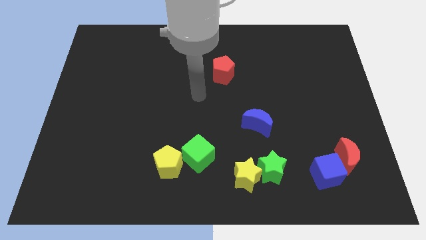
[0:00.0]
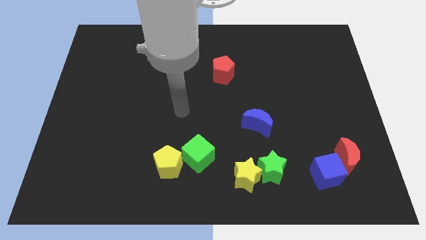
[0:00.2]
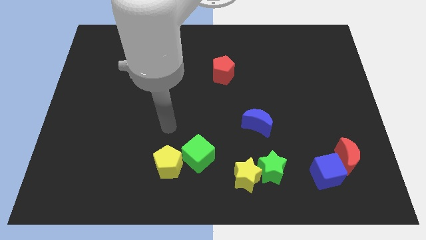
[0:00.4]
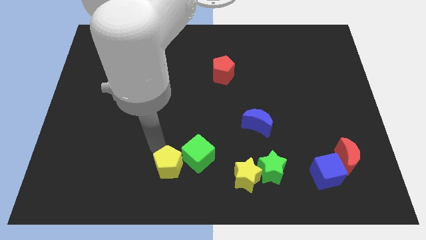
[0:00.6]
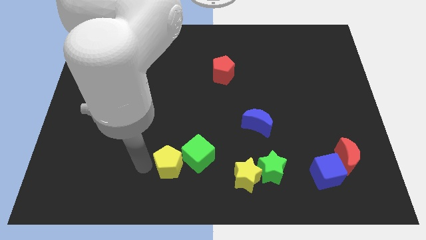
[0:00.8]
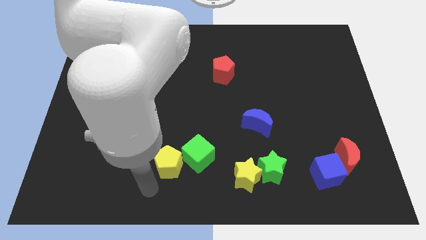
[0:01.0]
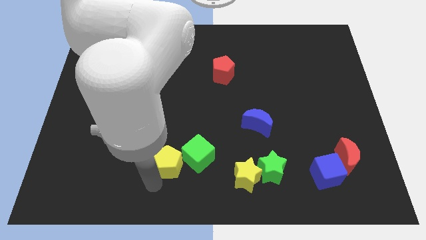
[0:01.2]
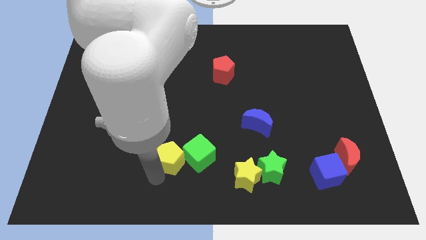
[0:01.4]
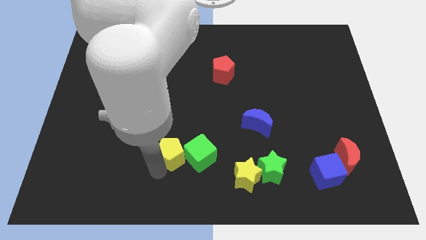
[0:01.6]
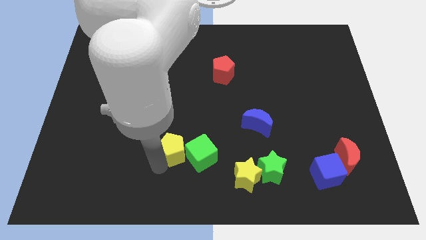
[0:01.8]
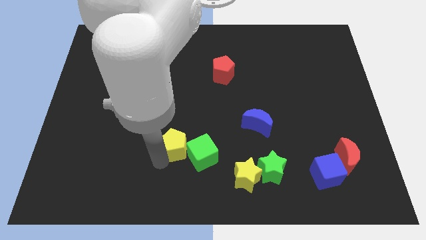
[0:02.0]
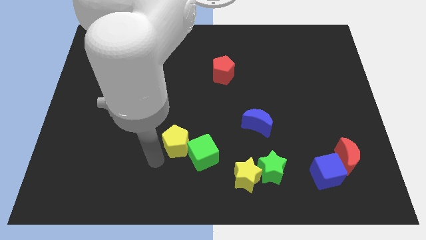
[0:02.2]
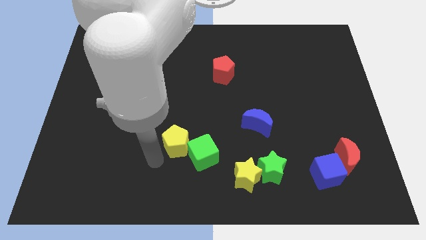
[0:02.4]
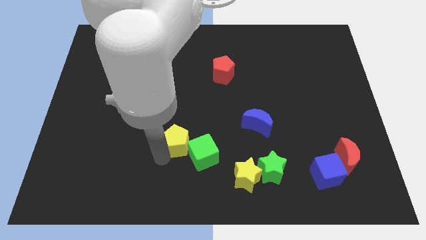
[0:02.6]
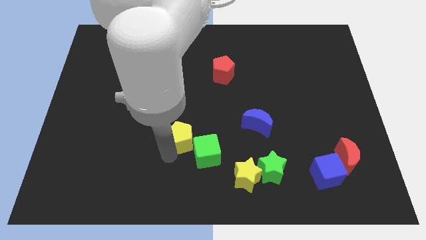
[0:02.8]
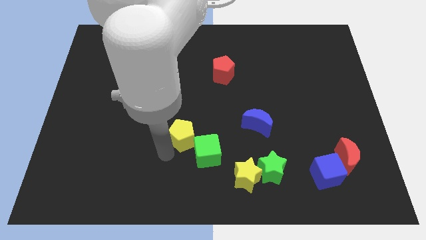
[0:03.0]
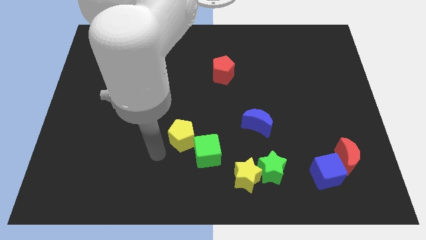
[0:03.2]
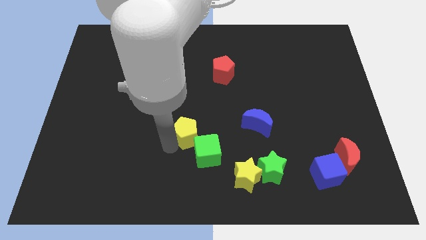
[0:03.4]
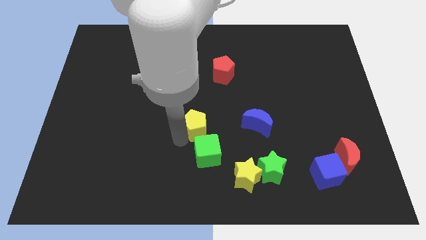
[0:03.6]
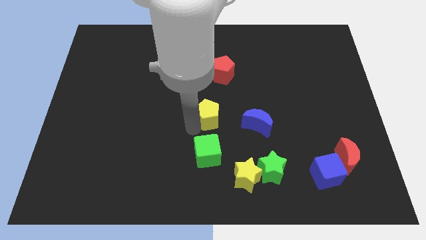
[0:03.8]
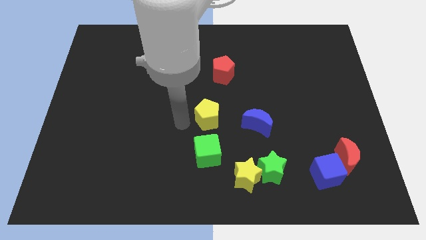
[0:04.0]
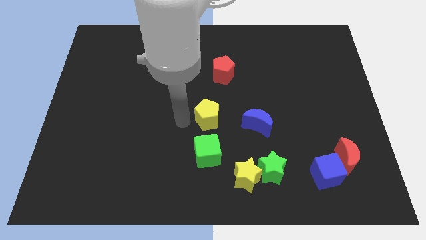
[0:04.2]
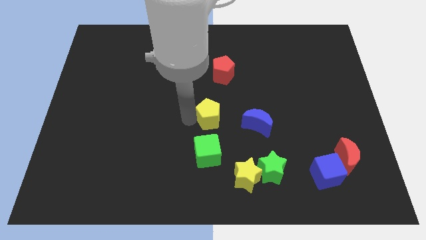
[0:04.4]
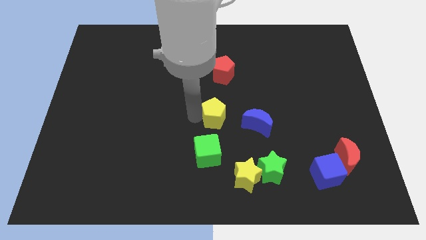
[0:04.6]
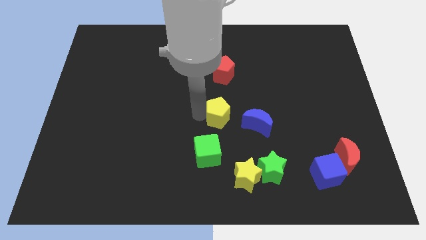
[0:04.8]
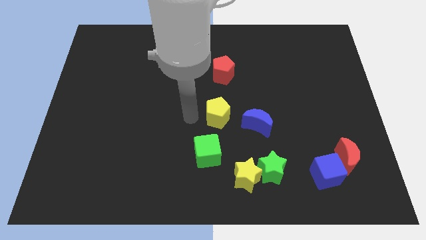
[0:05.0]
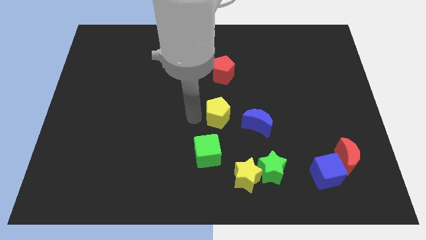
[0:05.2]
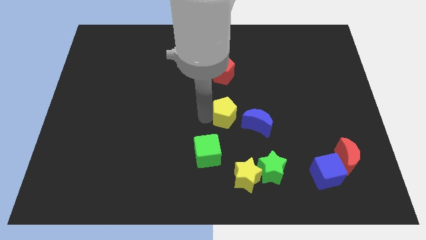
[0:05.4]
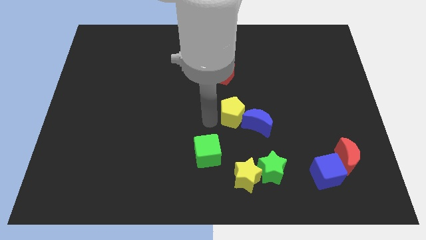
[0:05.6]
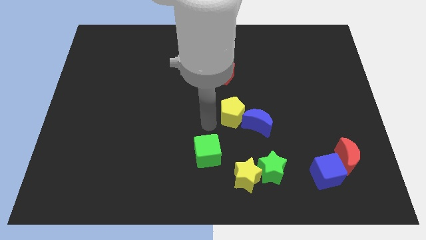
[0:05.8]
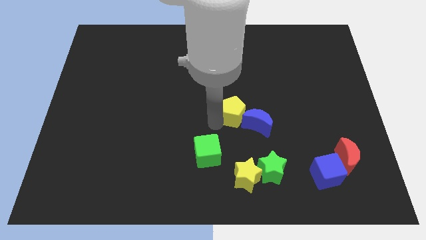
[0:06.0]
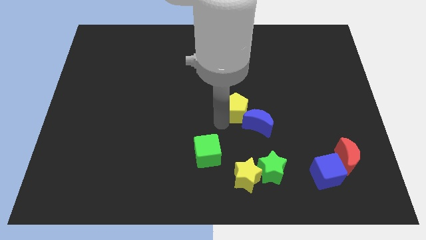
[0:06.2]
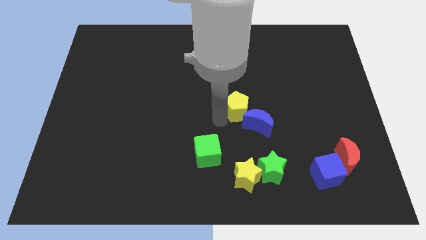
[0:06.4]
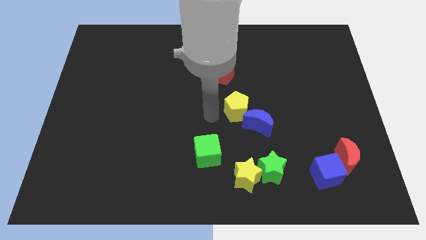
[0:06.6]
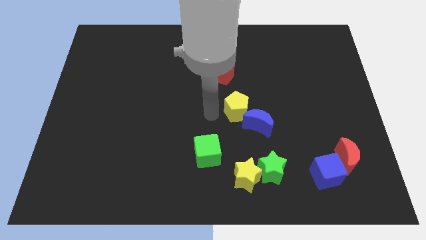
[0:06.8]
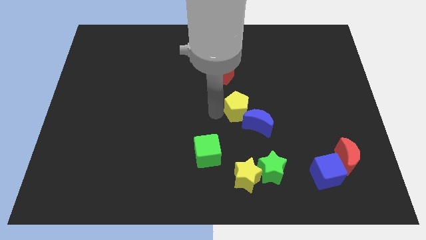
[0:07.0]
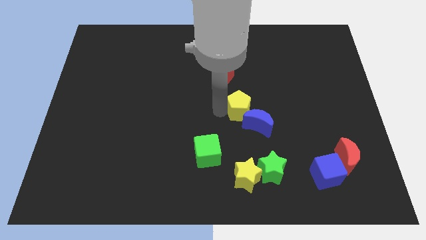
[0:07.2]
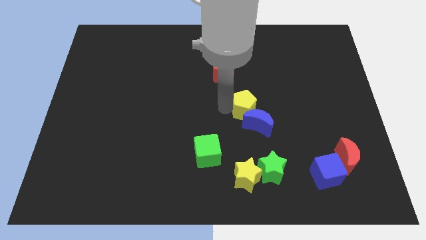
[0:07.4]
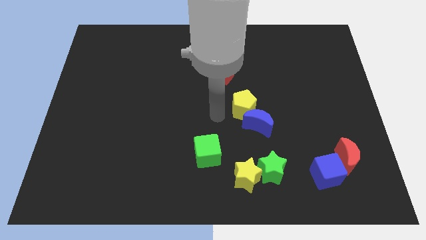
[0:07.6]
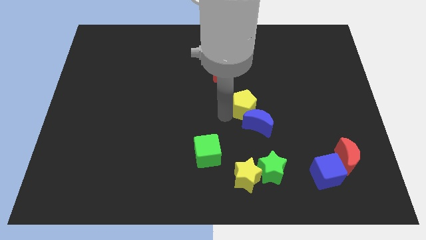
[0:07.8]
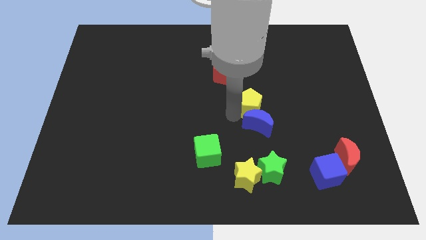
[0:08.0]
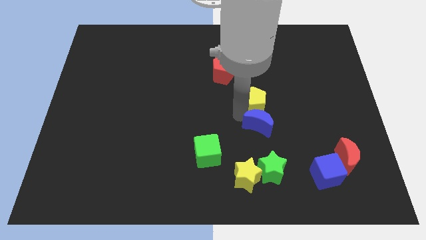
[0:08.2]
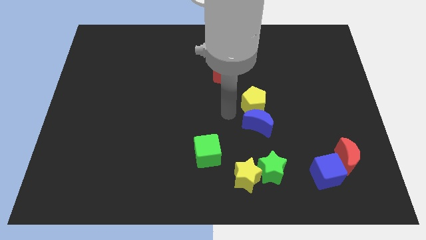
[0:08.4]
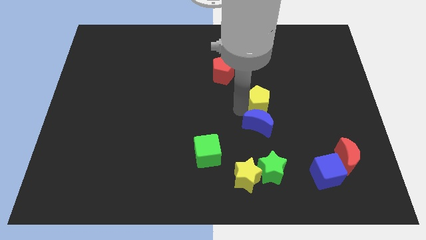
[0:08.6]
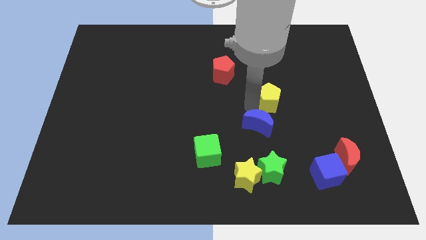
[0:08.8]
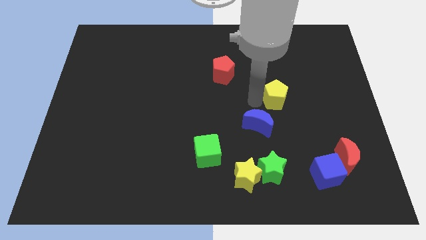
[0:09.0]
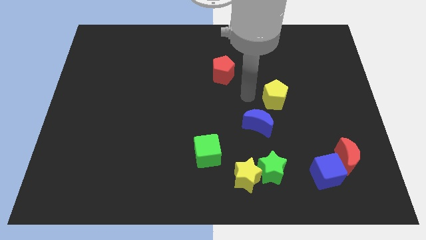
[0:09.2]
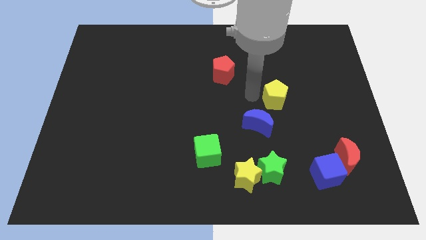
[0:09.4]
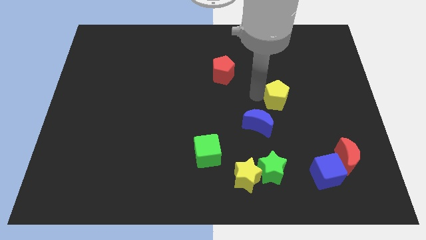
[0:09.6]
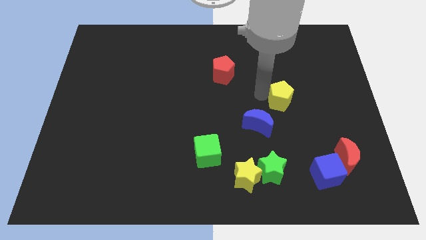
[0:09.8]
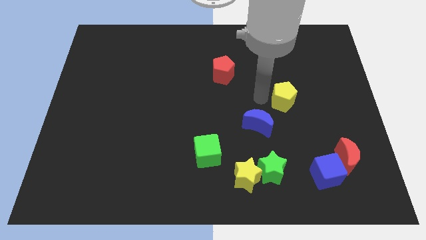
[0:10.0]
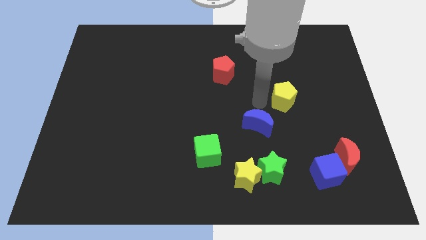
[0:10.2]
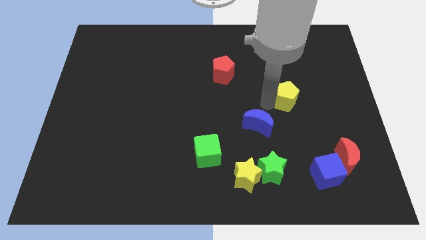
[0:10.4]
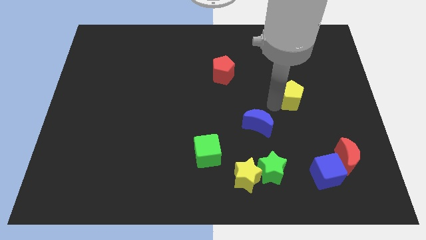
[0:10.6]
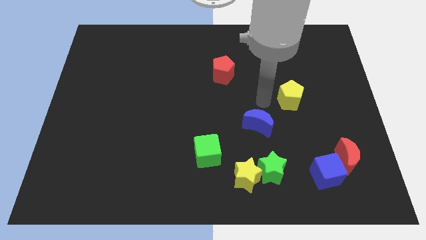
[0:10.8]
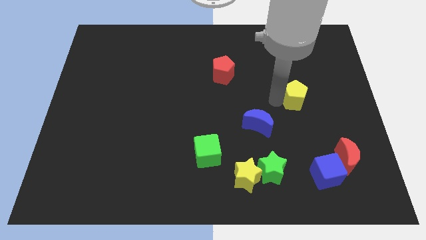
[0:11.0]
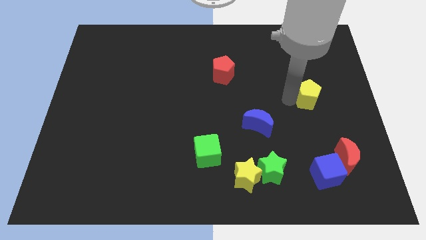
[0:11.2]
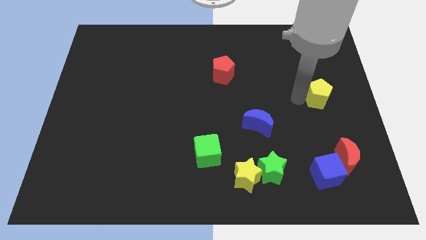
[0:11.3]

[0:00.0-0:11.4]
move the yellow pentagon to the center right
